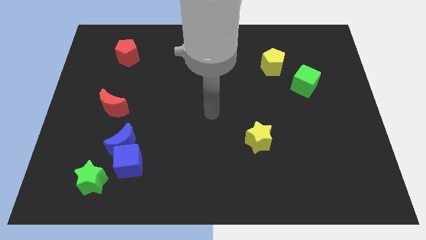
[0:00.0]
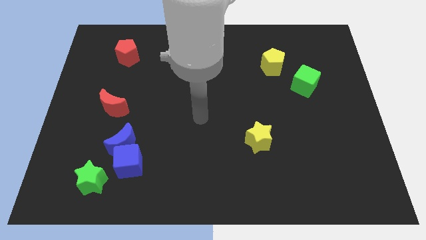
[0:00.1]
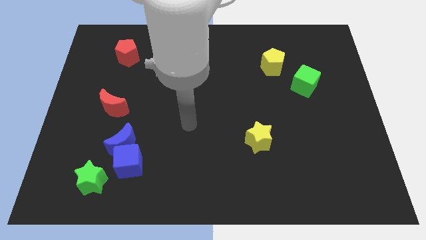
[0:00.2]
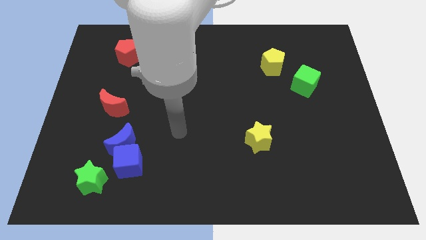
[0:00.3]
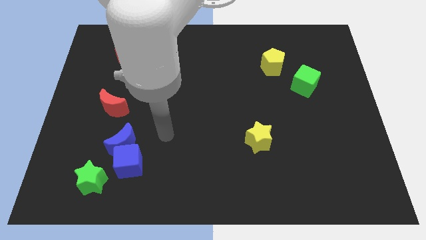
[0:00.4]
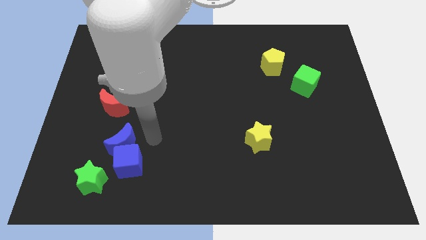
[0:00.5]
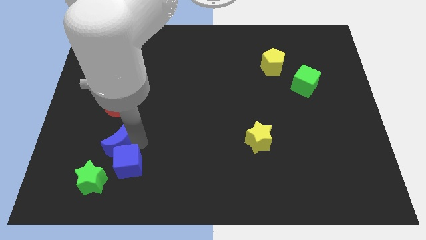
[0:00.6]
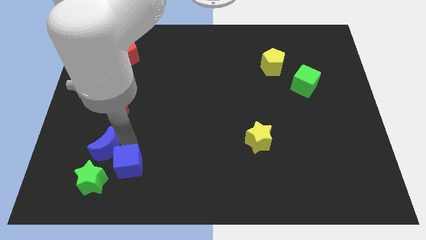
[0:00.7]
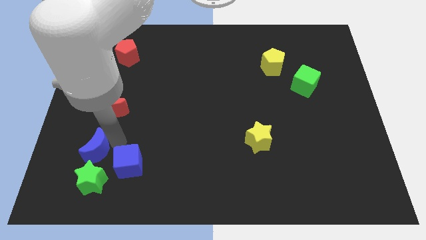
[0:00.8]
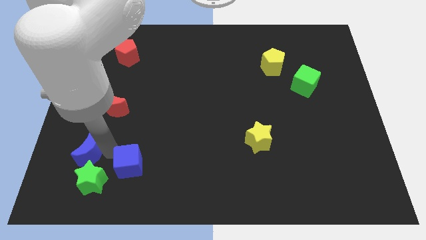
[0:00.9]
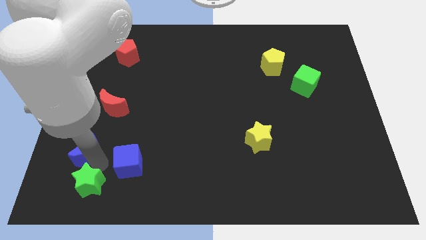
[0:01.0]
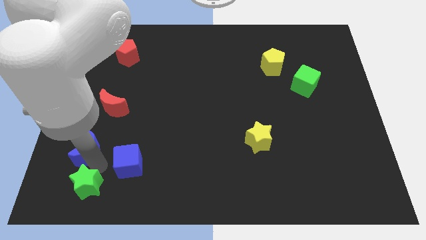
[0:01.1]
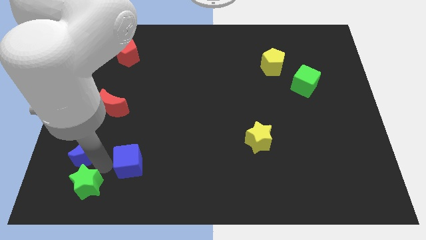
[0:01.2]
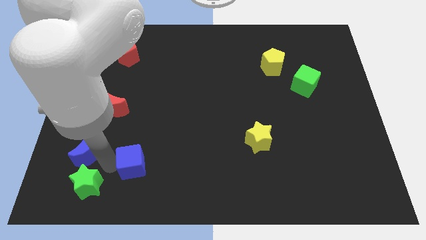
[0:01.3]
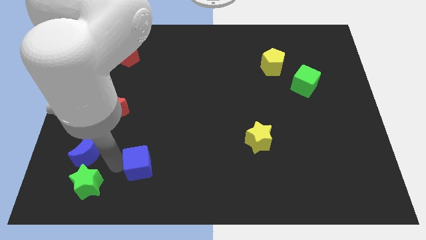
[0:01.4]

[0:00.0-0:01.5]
move the blue cube away from the blue moon and green star

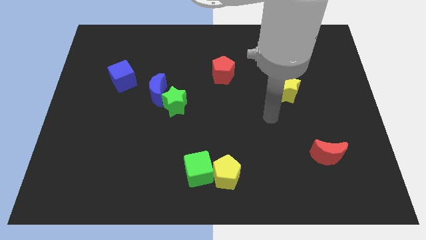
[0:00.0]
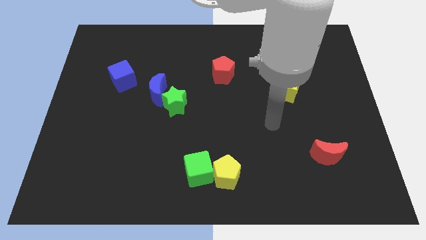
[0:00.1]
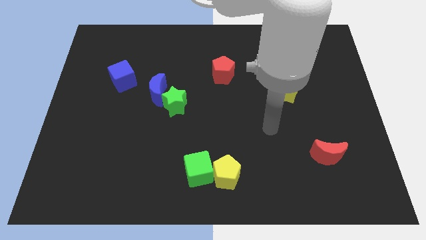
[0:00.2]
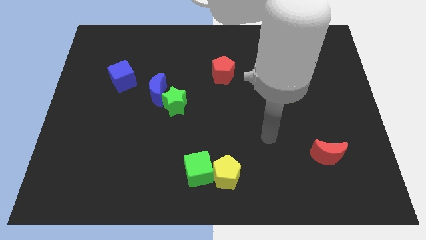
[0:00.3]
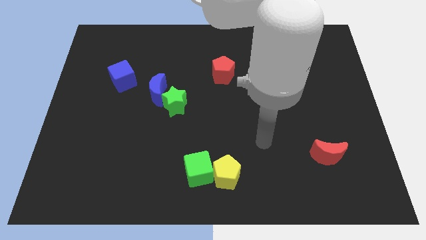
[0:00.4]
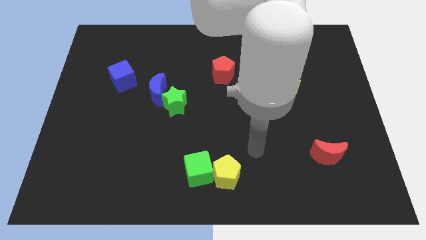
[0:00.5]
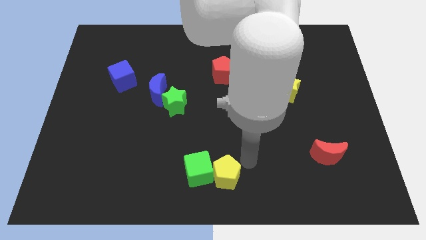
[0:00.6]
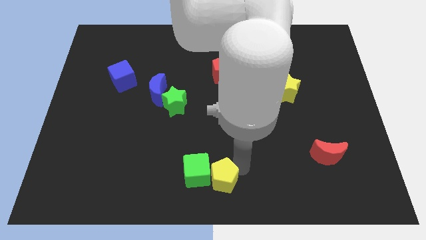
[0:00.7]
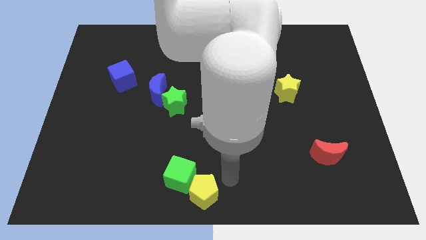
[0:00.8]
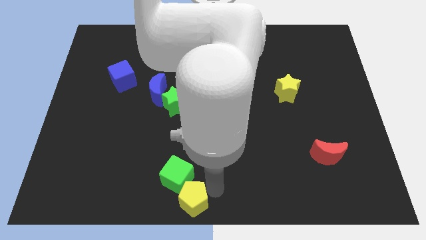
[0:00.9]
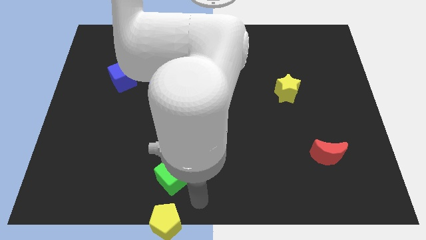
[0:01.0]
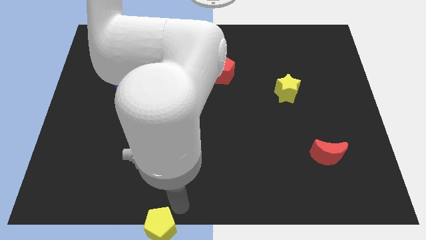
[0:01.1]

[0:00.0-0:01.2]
separate the green cube from the yellow pentagon

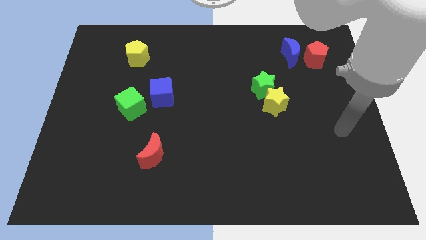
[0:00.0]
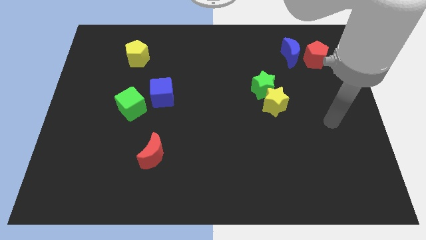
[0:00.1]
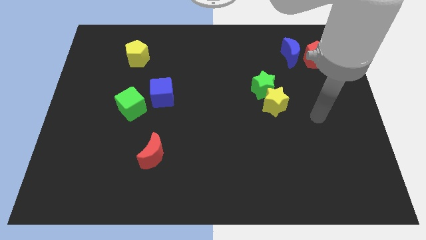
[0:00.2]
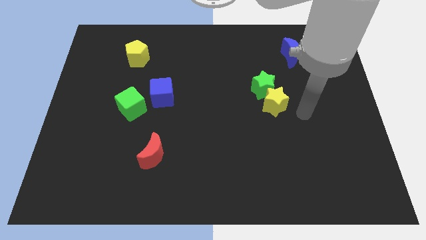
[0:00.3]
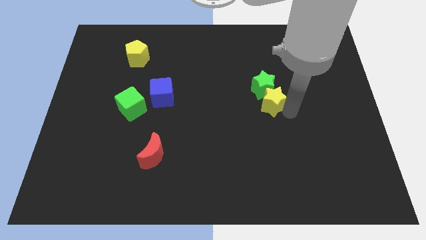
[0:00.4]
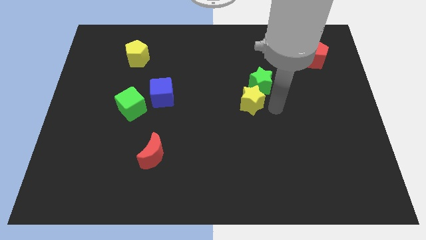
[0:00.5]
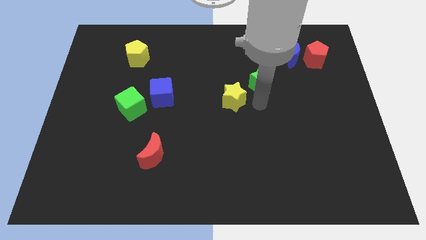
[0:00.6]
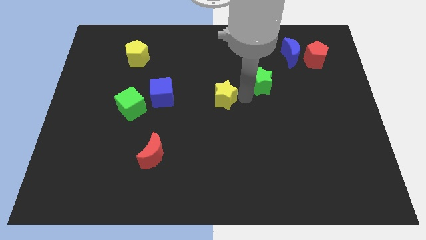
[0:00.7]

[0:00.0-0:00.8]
pull the green star apart from the yellow star

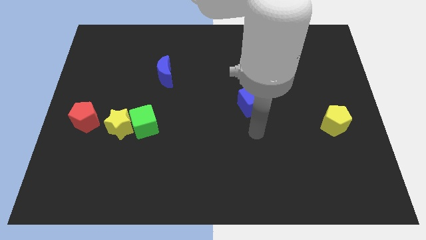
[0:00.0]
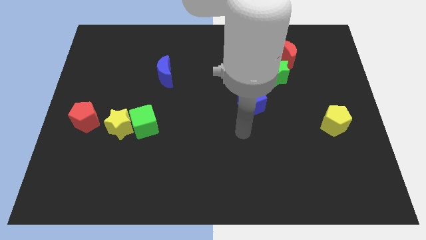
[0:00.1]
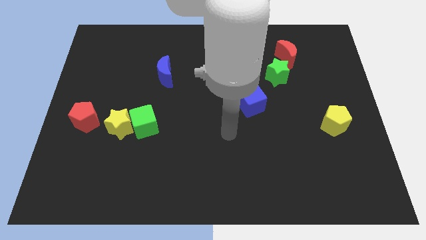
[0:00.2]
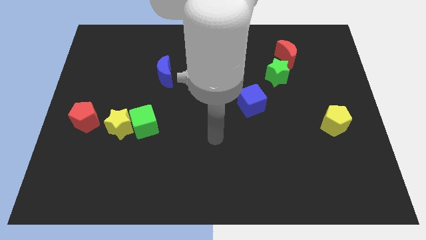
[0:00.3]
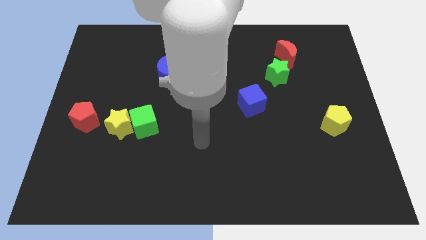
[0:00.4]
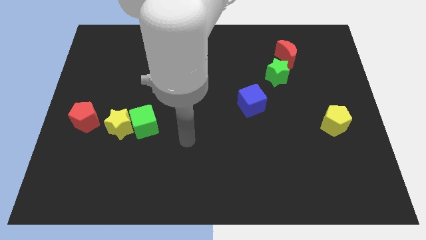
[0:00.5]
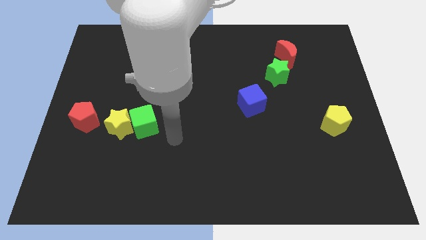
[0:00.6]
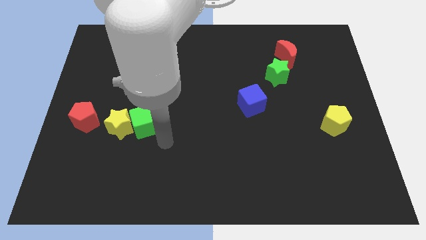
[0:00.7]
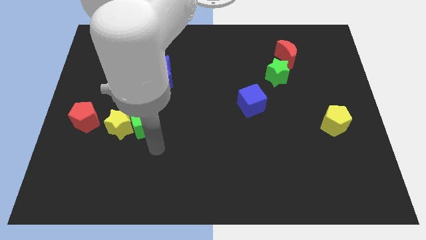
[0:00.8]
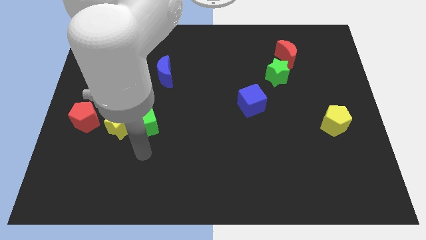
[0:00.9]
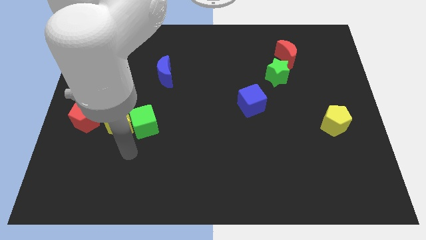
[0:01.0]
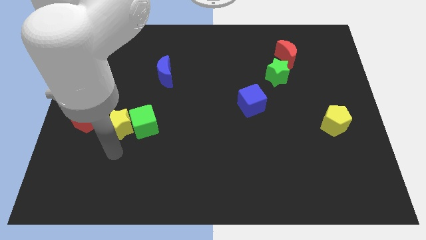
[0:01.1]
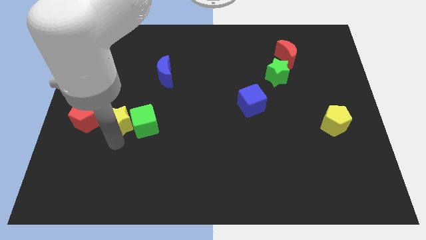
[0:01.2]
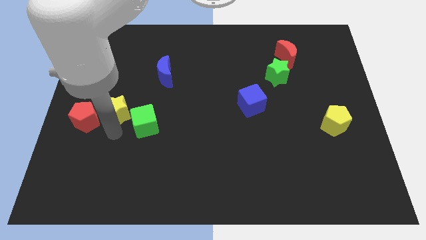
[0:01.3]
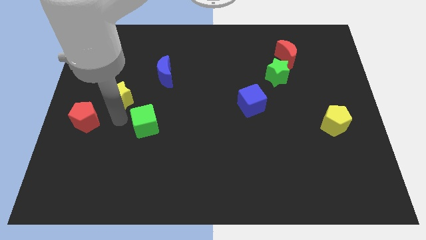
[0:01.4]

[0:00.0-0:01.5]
move the green cube away from the yellow star

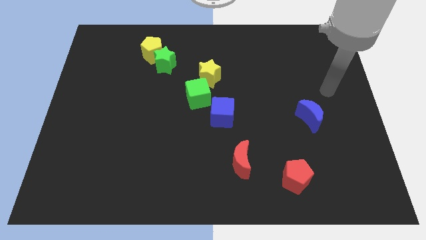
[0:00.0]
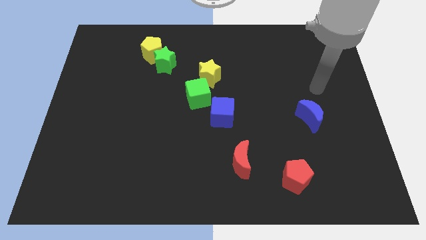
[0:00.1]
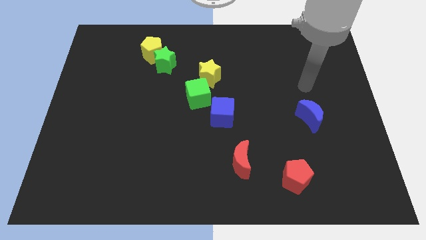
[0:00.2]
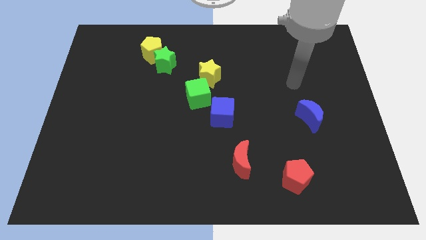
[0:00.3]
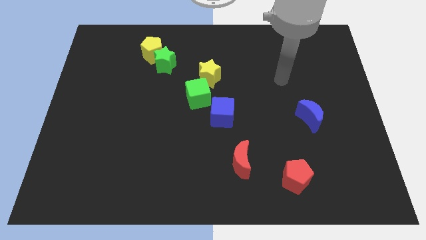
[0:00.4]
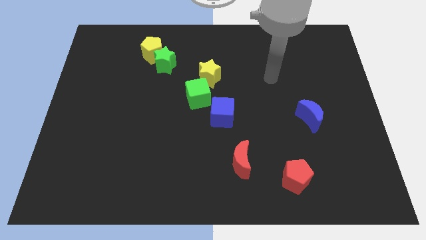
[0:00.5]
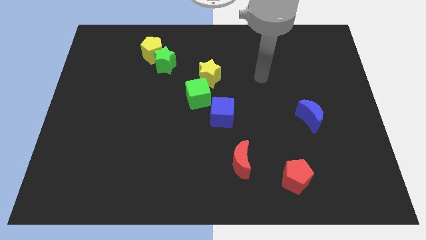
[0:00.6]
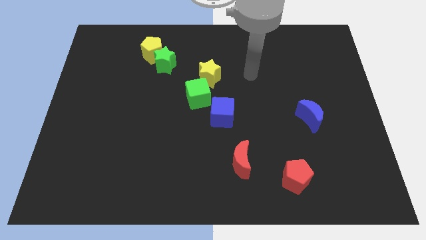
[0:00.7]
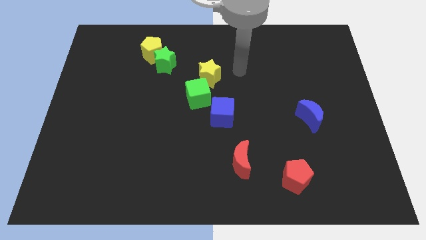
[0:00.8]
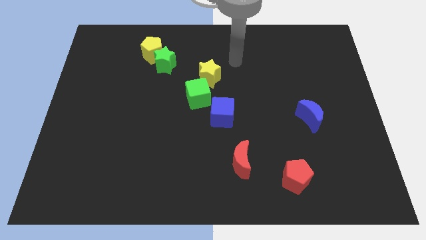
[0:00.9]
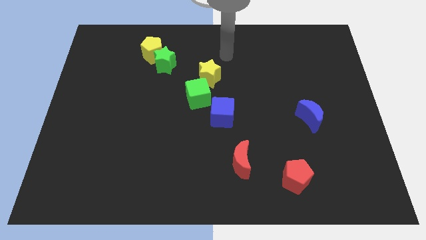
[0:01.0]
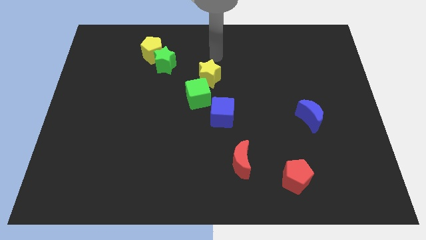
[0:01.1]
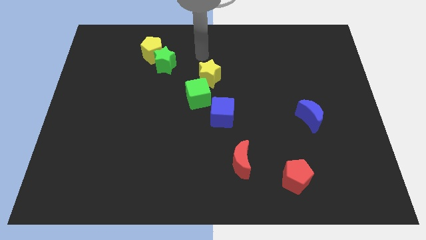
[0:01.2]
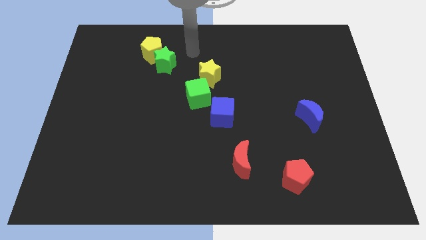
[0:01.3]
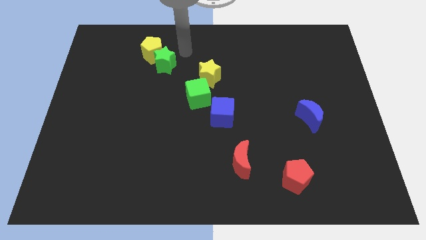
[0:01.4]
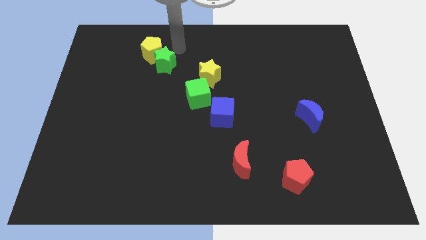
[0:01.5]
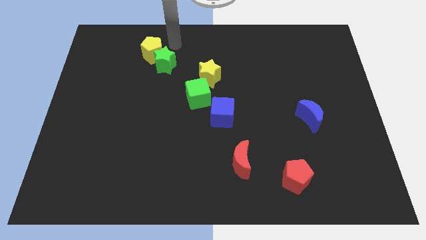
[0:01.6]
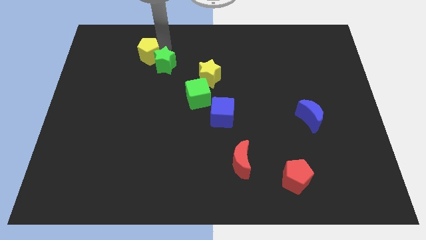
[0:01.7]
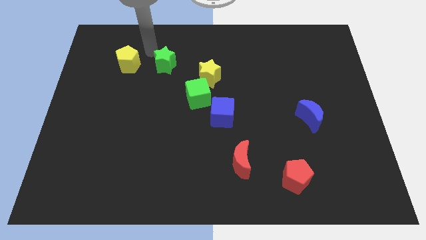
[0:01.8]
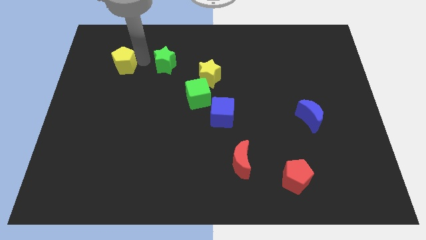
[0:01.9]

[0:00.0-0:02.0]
move the green star away from the yellow pentagon

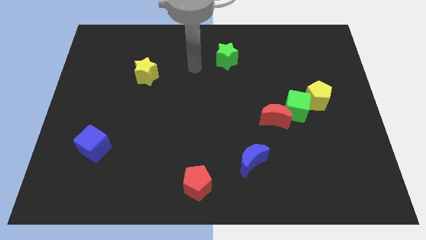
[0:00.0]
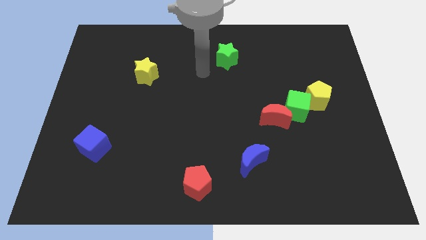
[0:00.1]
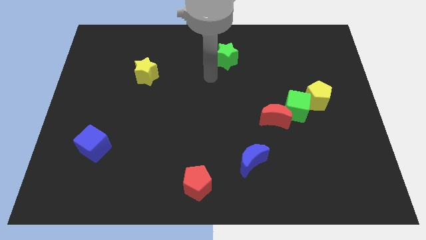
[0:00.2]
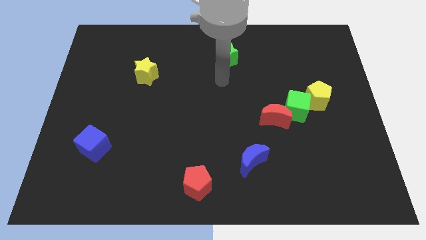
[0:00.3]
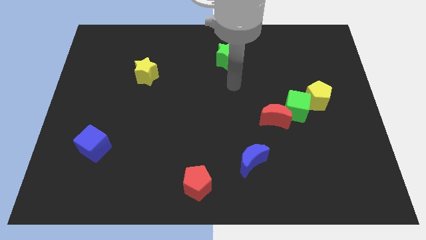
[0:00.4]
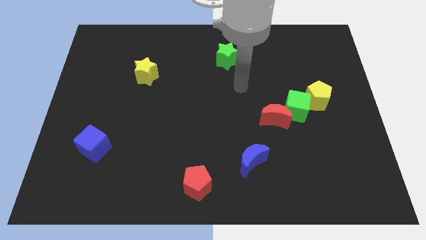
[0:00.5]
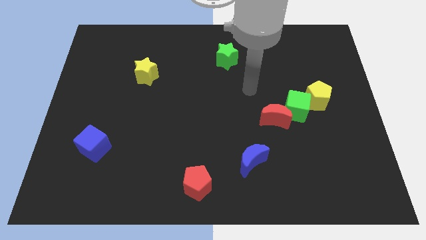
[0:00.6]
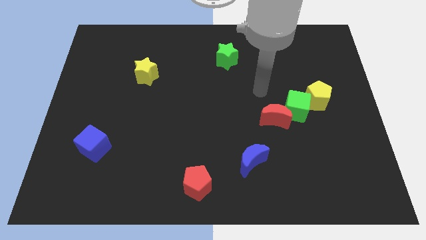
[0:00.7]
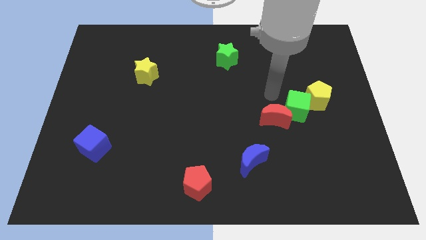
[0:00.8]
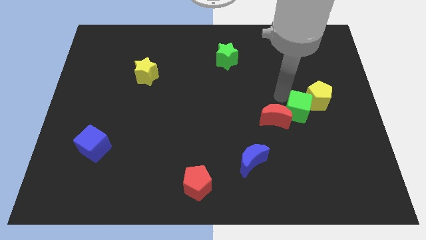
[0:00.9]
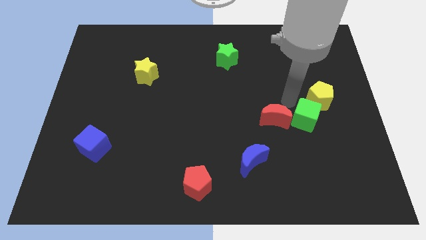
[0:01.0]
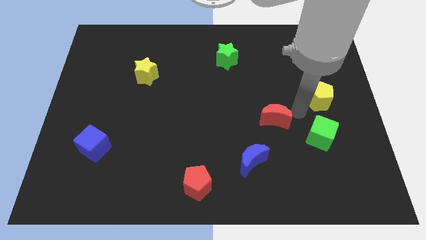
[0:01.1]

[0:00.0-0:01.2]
separate the red moon from the green cube

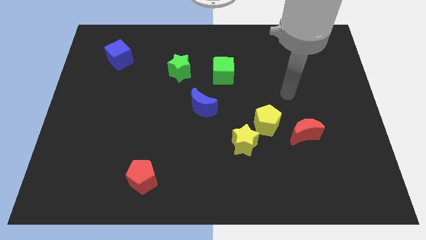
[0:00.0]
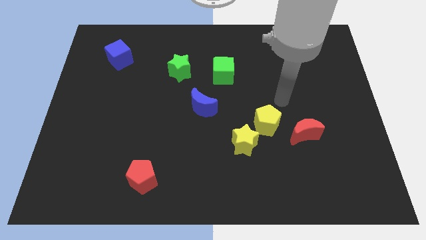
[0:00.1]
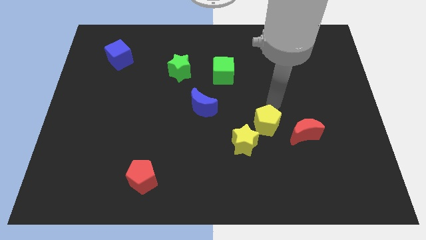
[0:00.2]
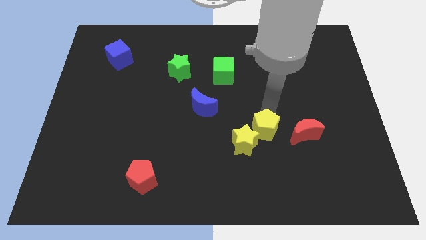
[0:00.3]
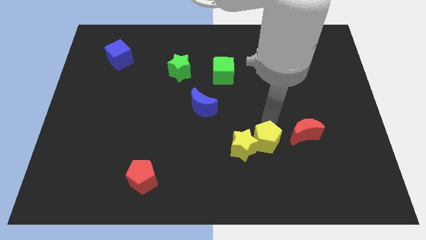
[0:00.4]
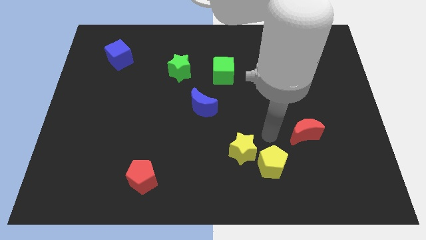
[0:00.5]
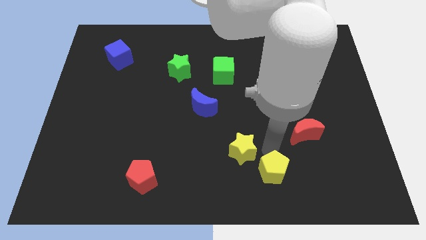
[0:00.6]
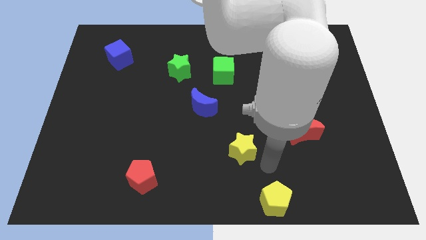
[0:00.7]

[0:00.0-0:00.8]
pull the yellow star apart from the yellow pentagon

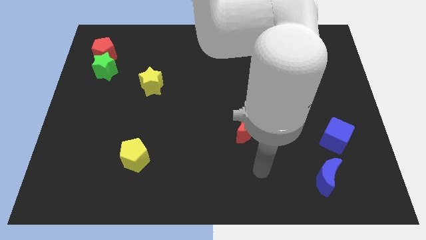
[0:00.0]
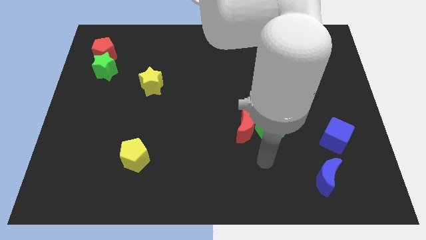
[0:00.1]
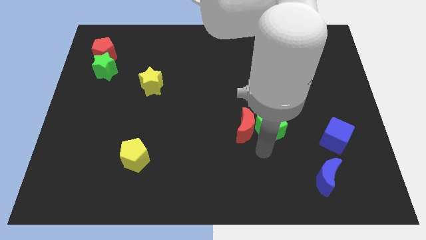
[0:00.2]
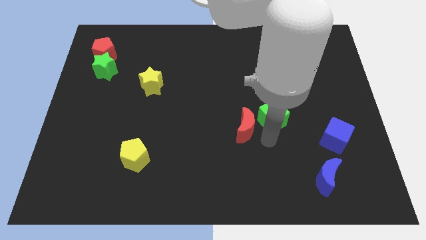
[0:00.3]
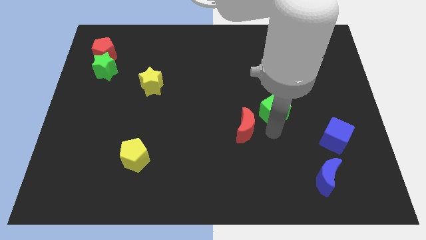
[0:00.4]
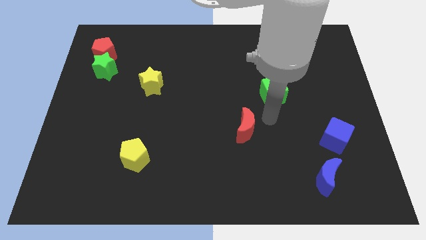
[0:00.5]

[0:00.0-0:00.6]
move the red moon away from the green cube
